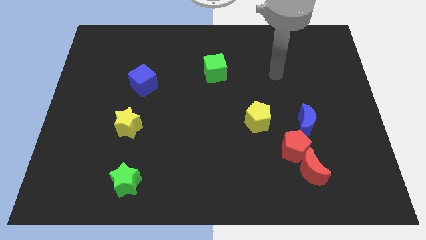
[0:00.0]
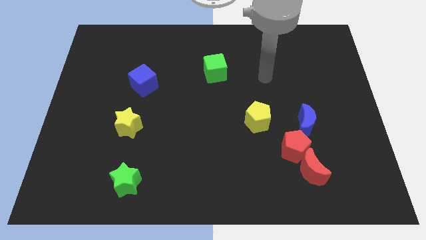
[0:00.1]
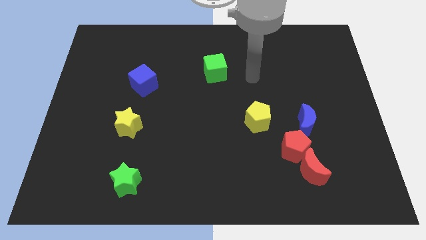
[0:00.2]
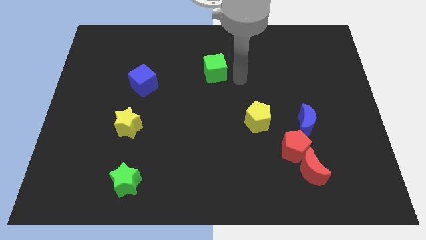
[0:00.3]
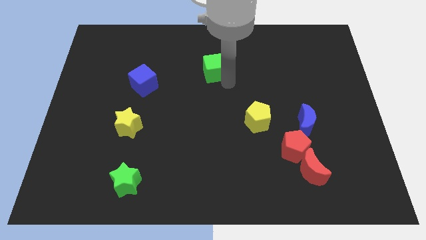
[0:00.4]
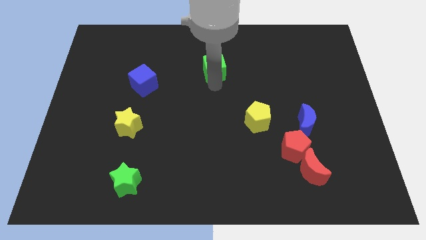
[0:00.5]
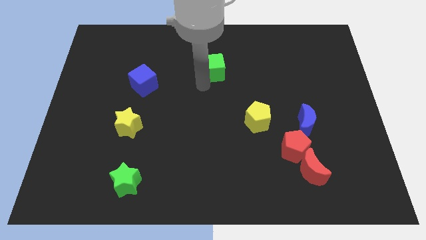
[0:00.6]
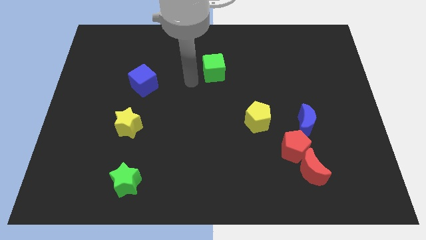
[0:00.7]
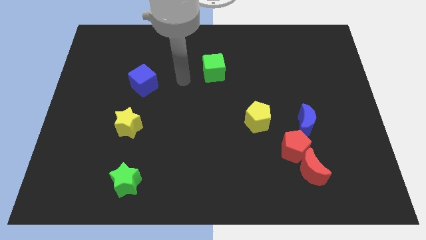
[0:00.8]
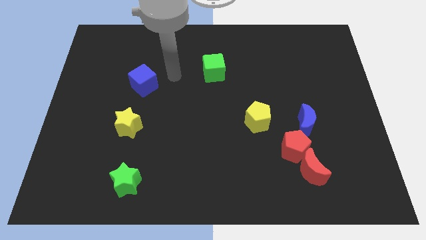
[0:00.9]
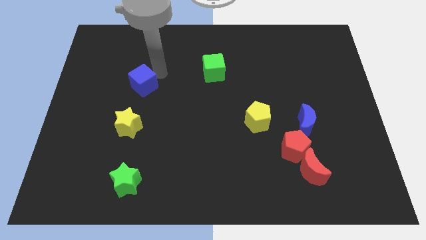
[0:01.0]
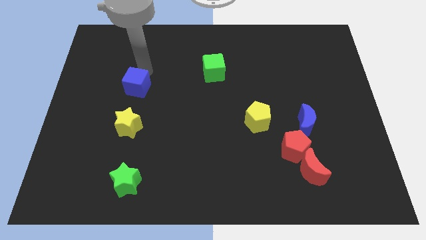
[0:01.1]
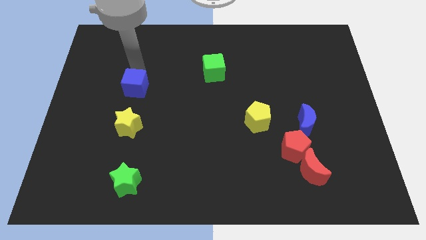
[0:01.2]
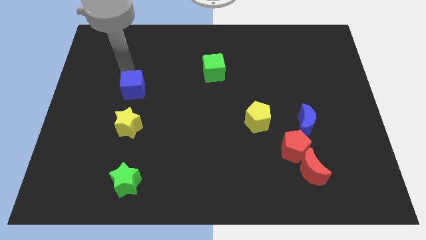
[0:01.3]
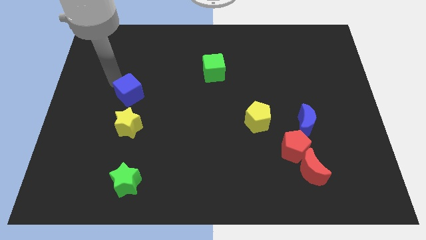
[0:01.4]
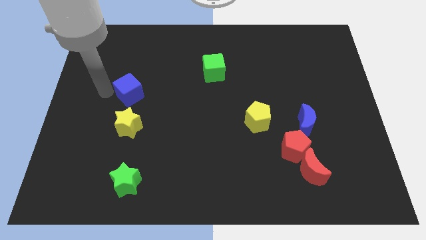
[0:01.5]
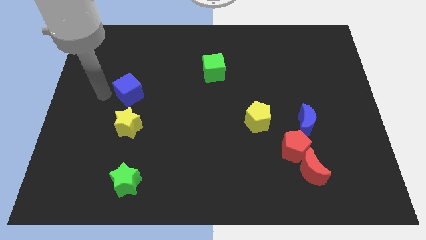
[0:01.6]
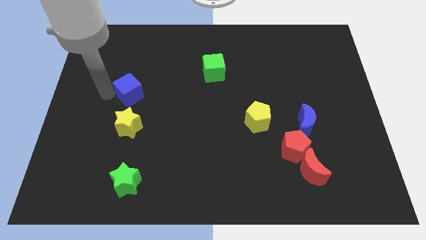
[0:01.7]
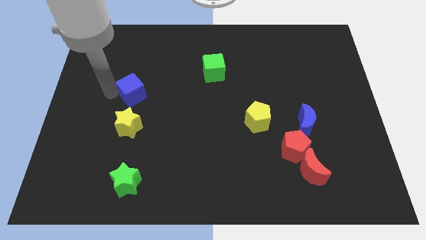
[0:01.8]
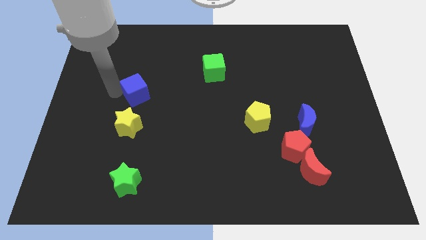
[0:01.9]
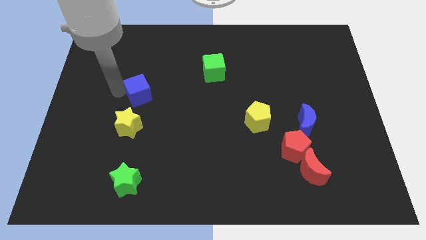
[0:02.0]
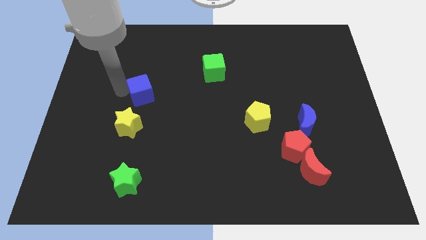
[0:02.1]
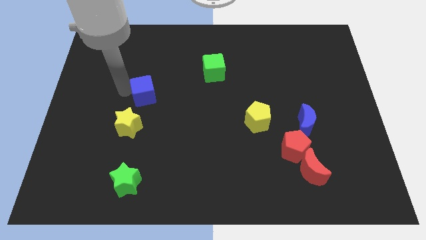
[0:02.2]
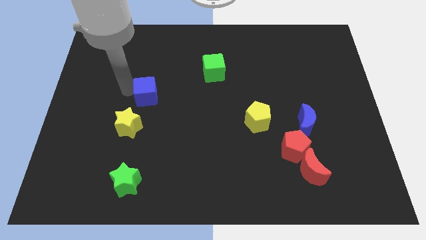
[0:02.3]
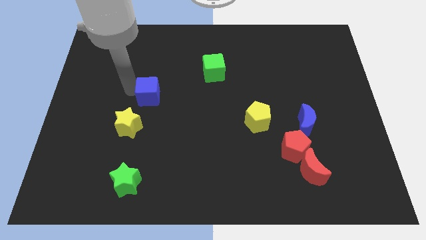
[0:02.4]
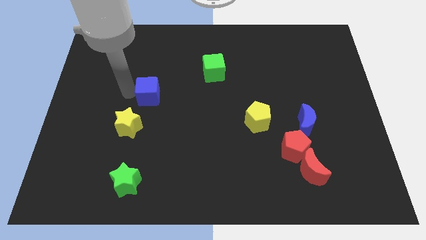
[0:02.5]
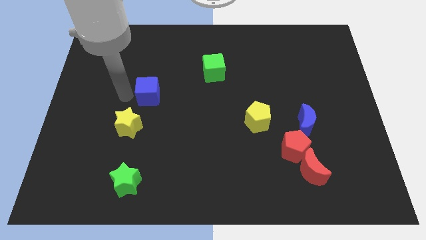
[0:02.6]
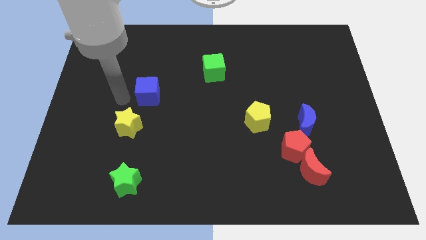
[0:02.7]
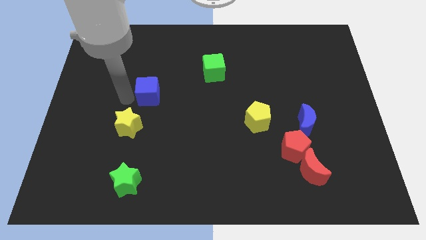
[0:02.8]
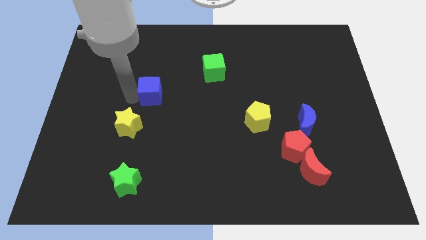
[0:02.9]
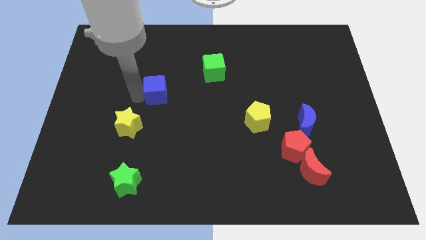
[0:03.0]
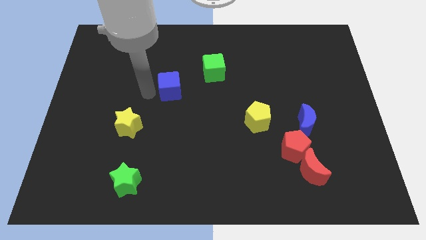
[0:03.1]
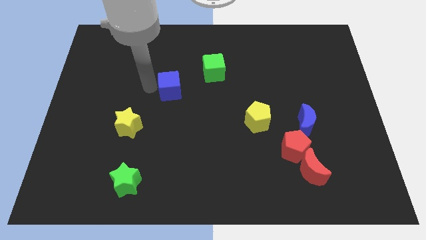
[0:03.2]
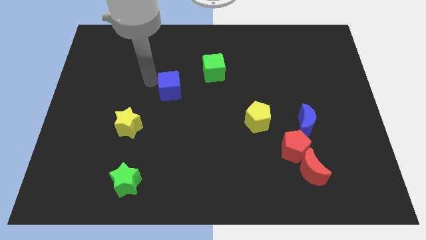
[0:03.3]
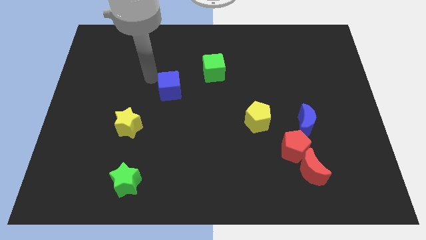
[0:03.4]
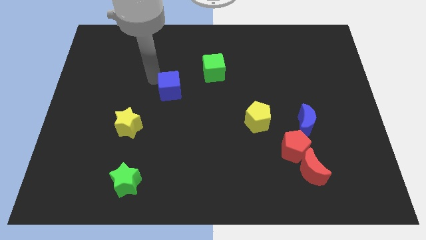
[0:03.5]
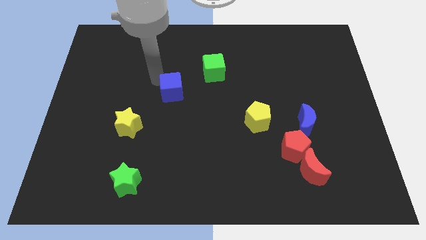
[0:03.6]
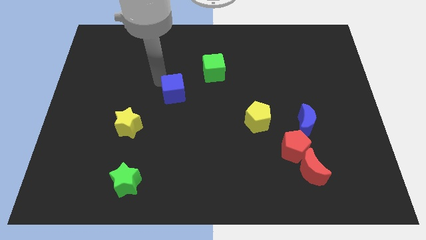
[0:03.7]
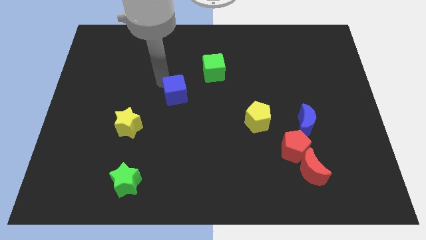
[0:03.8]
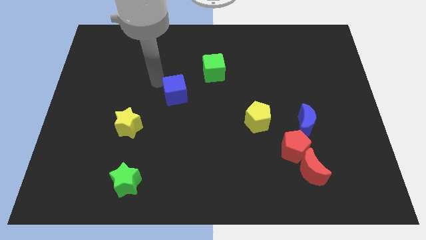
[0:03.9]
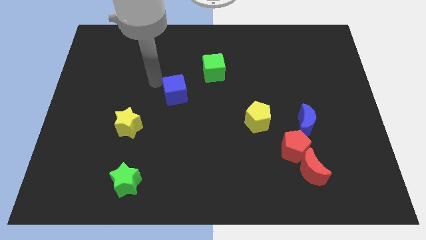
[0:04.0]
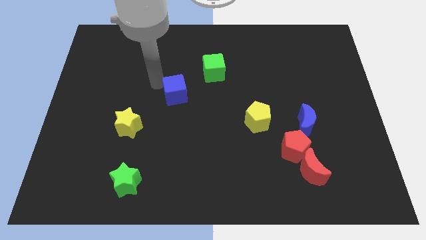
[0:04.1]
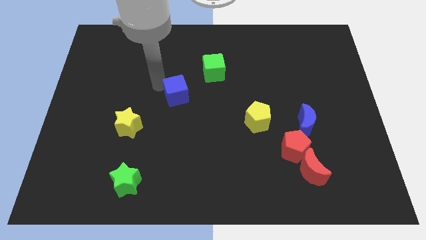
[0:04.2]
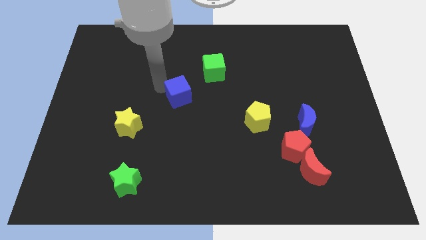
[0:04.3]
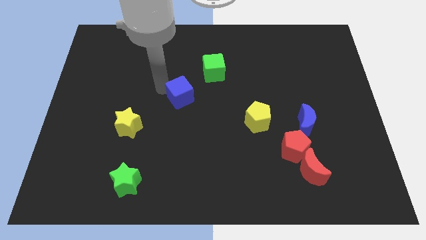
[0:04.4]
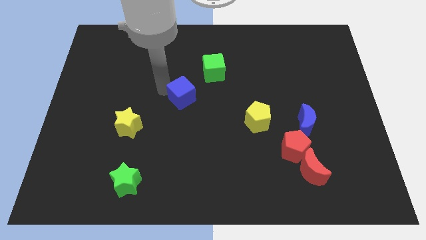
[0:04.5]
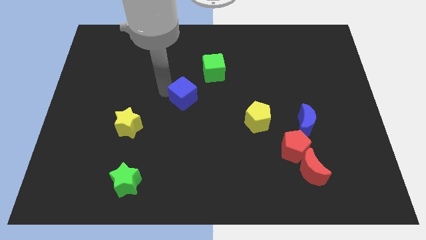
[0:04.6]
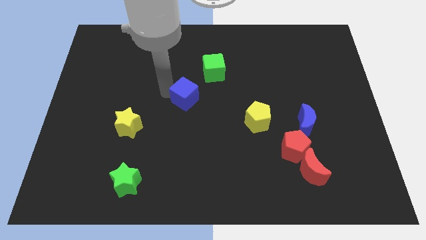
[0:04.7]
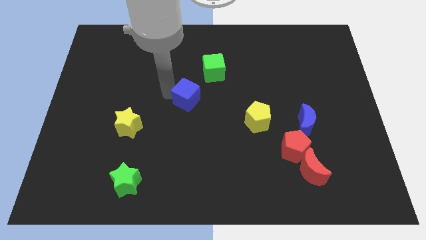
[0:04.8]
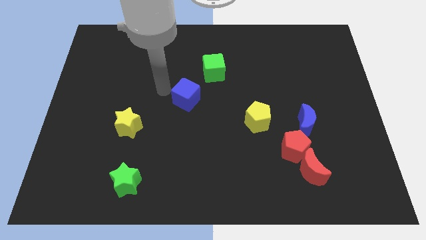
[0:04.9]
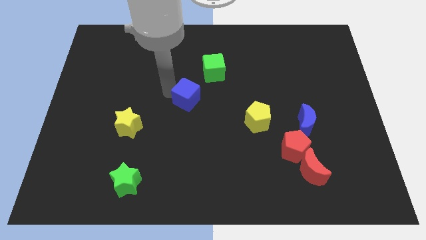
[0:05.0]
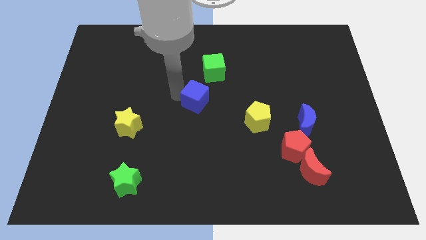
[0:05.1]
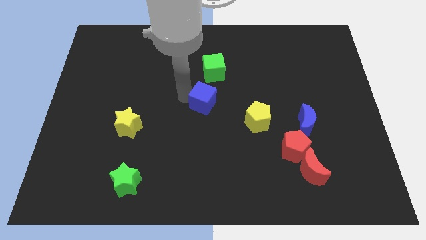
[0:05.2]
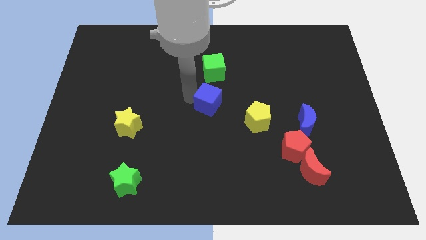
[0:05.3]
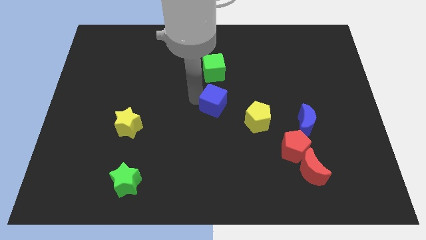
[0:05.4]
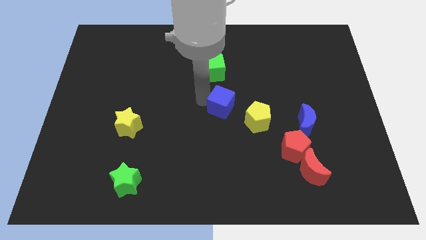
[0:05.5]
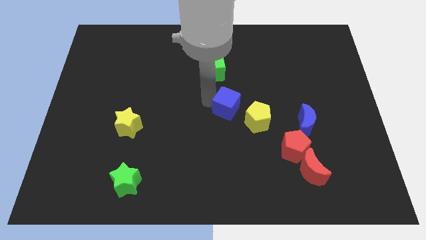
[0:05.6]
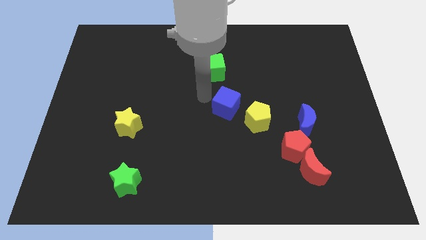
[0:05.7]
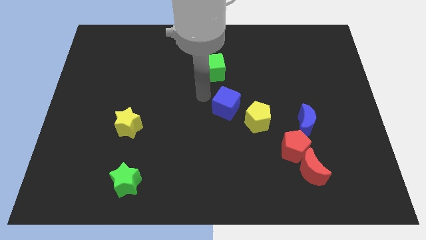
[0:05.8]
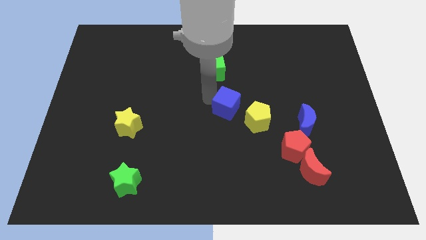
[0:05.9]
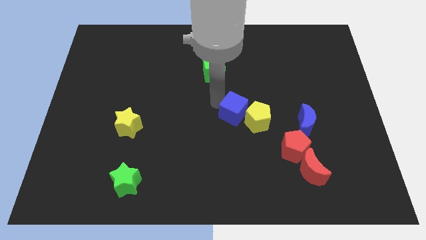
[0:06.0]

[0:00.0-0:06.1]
push the blue cube towards the yellow pentagon

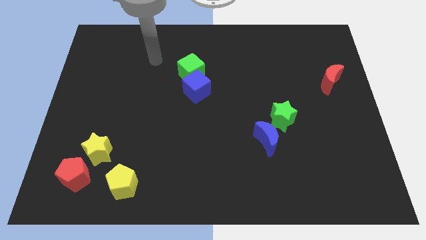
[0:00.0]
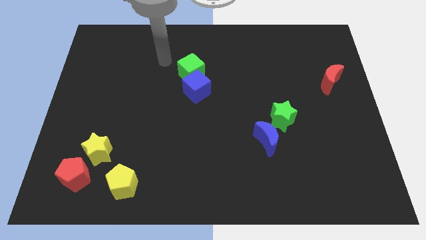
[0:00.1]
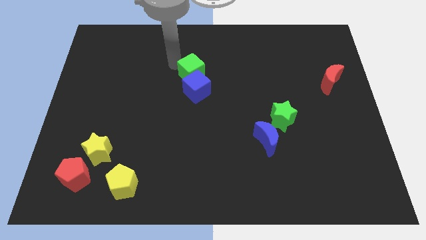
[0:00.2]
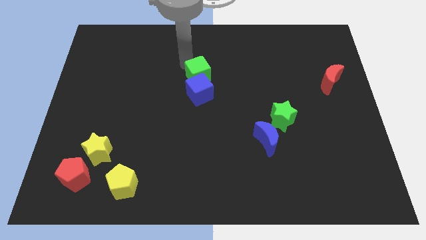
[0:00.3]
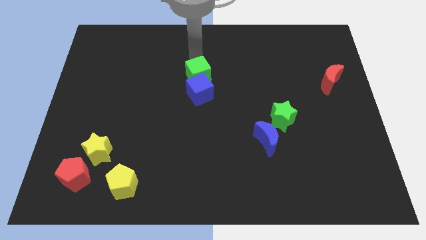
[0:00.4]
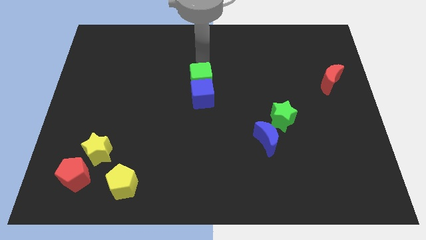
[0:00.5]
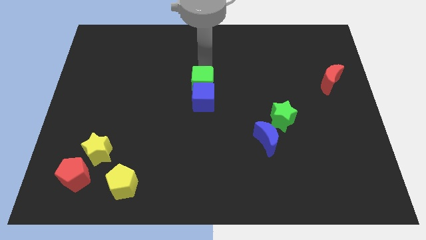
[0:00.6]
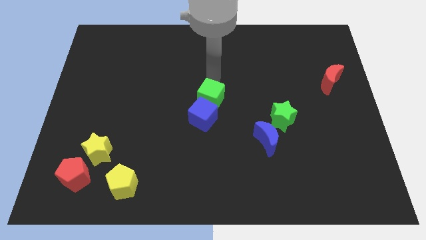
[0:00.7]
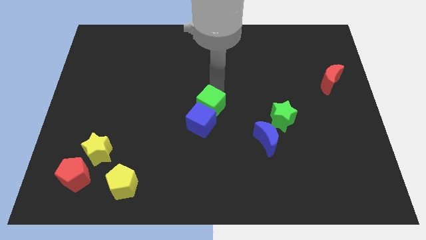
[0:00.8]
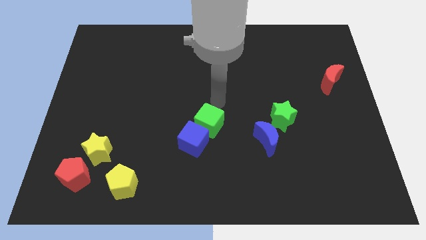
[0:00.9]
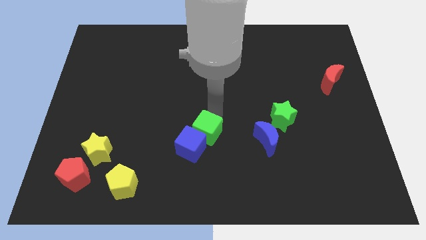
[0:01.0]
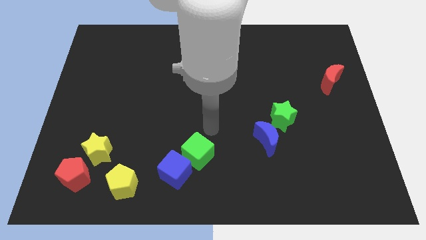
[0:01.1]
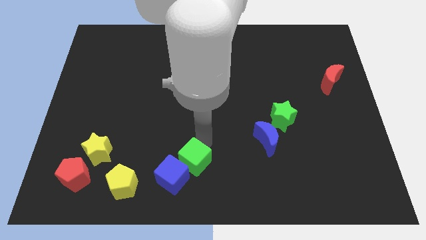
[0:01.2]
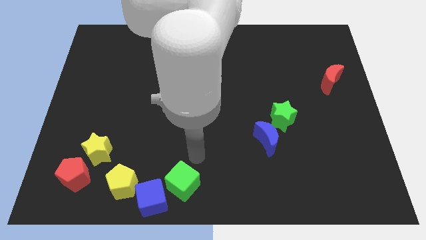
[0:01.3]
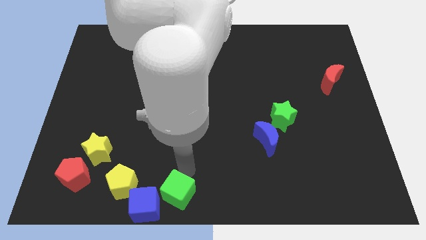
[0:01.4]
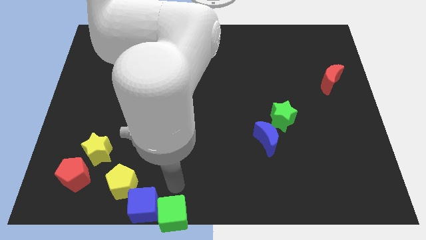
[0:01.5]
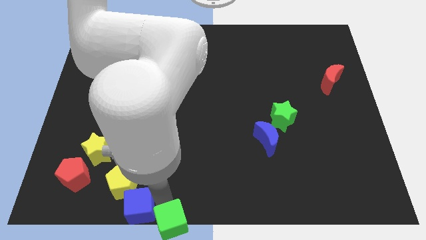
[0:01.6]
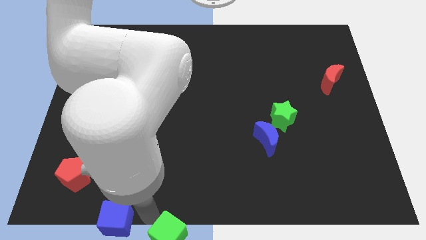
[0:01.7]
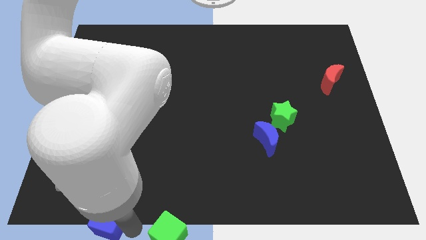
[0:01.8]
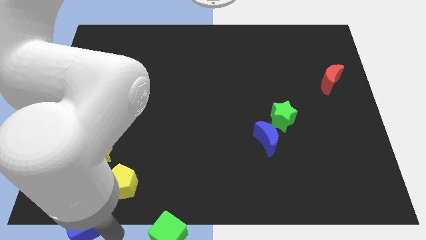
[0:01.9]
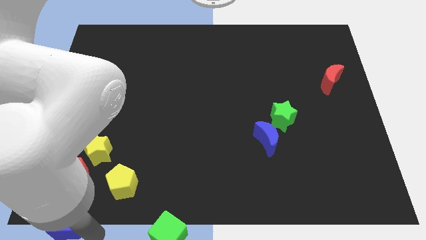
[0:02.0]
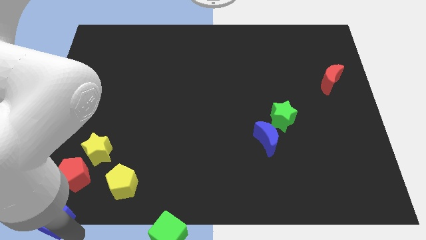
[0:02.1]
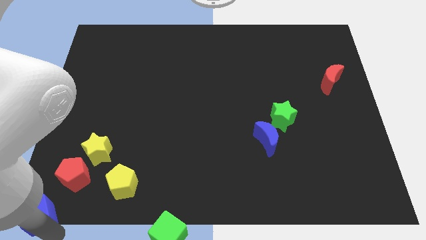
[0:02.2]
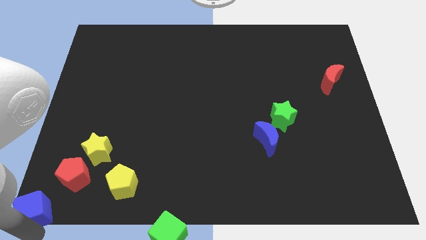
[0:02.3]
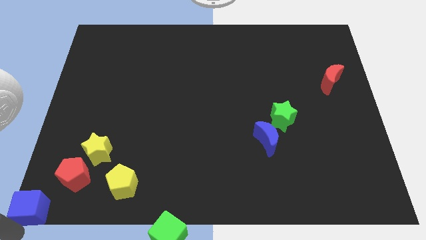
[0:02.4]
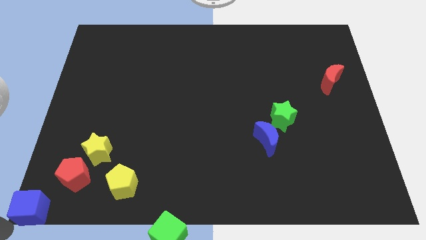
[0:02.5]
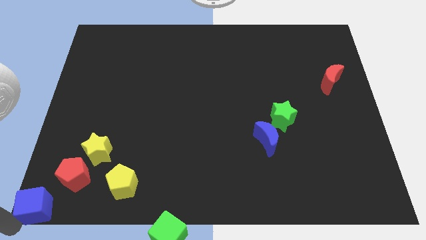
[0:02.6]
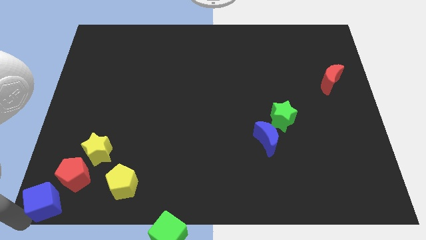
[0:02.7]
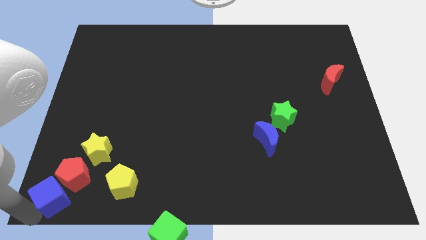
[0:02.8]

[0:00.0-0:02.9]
move the blue cube close to the red pentagon
